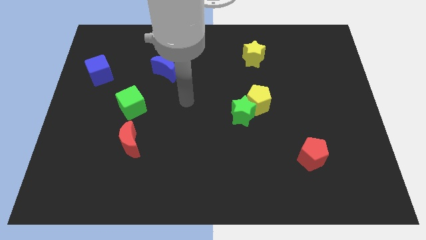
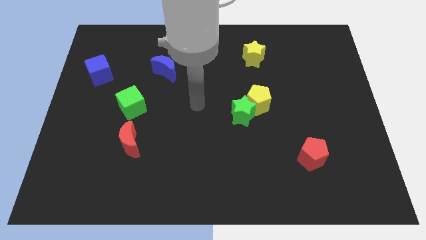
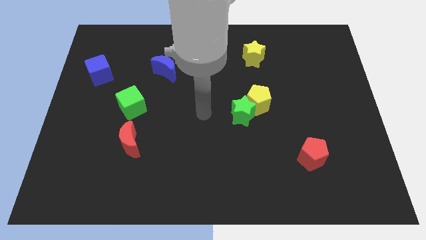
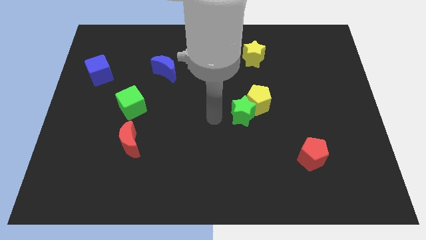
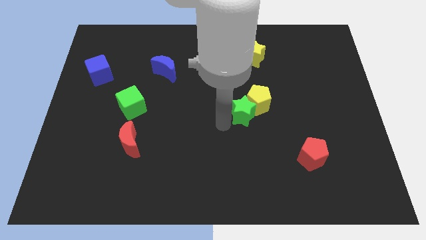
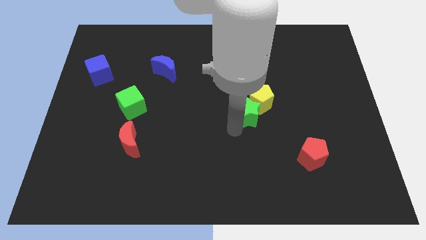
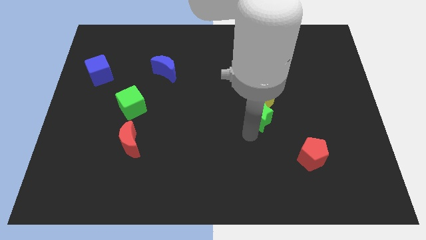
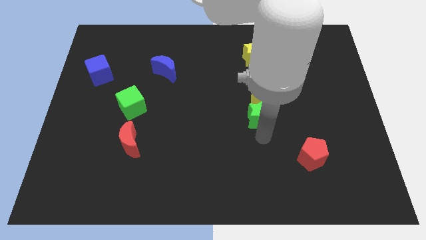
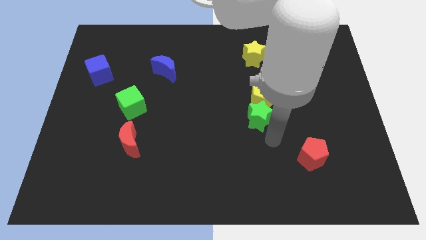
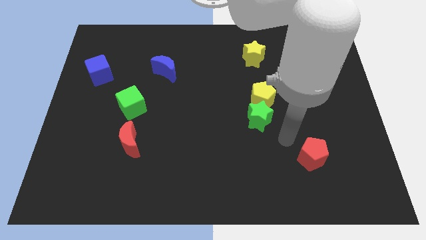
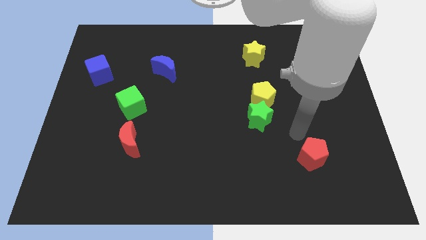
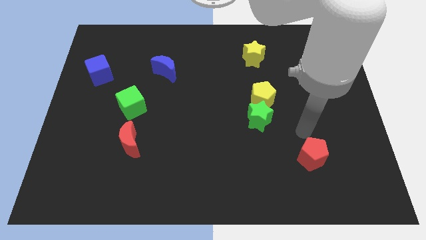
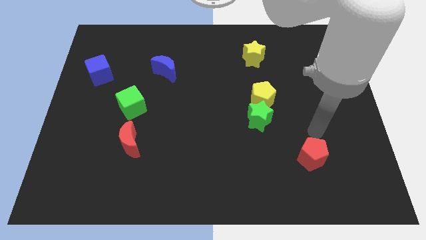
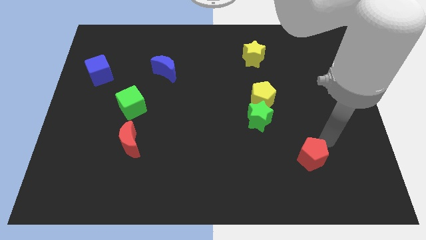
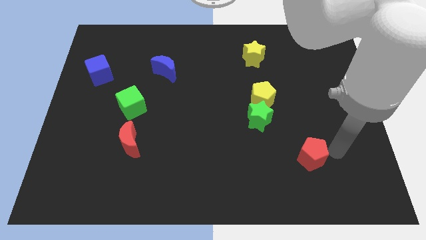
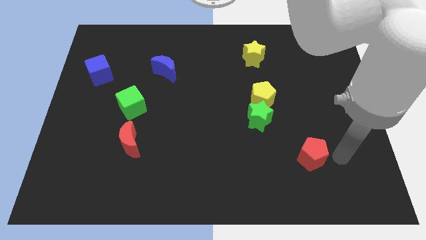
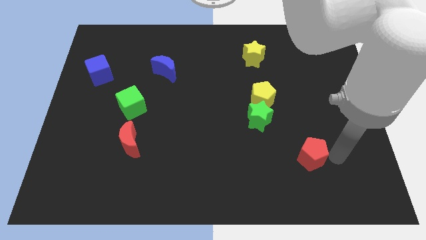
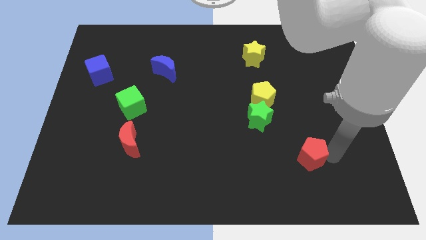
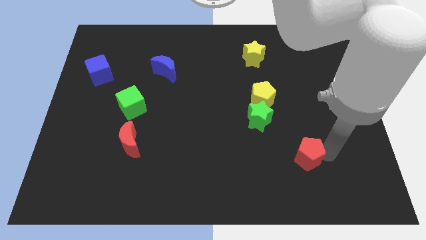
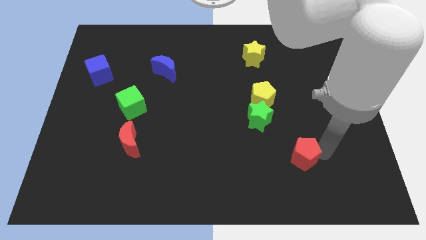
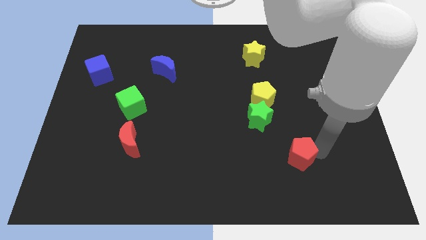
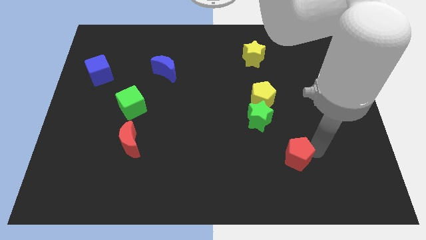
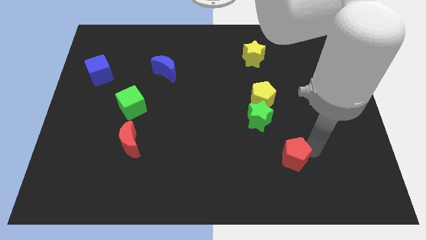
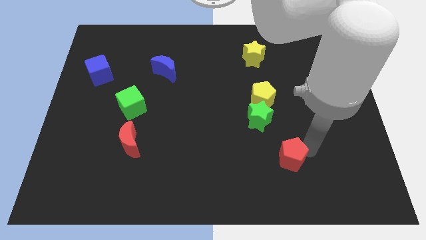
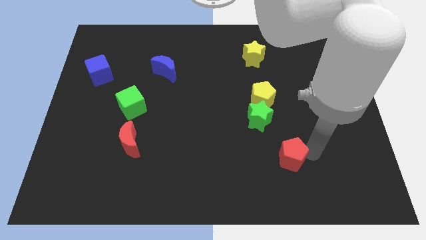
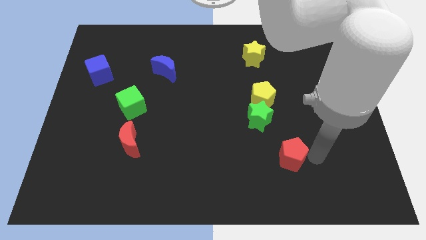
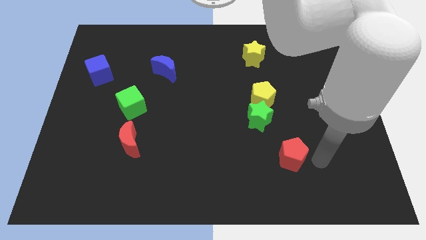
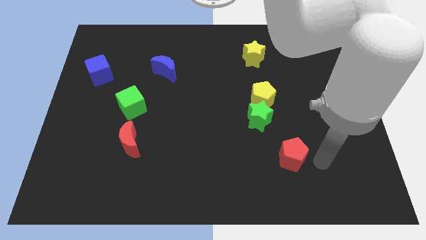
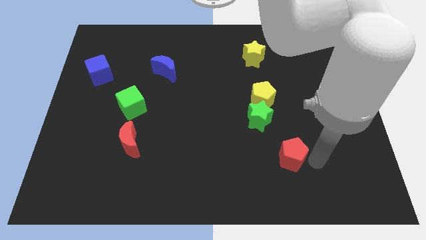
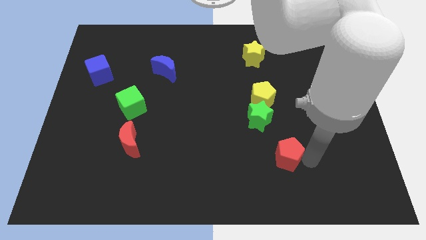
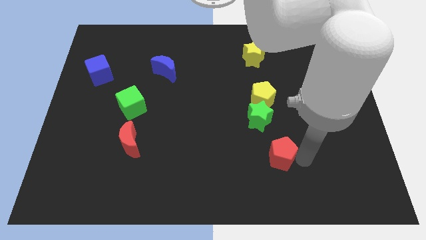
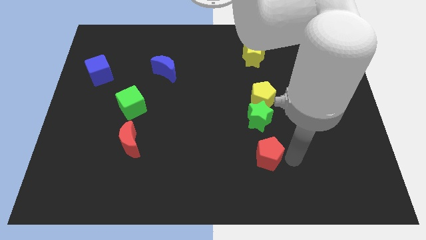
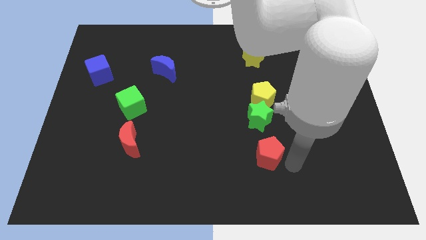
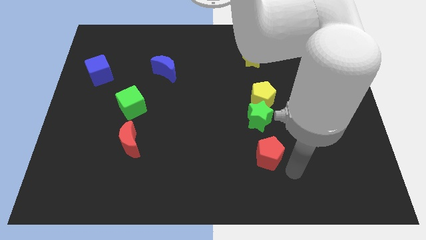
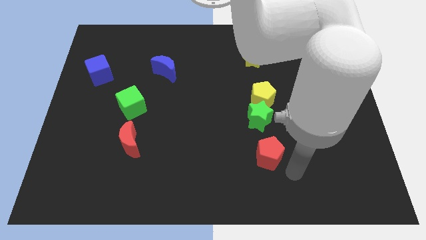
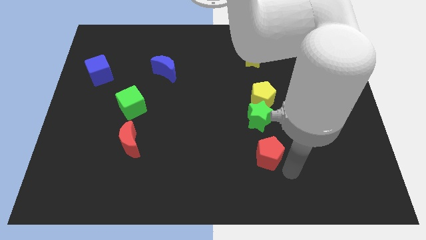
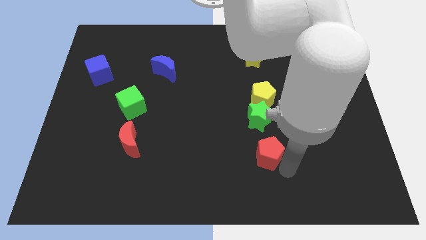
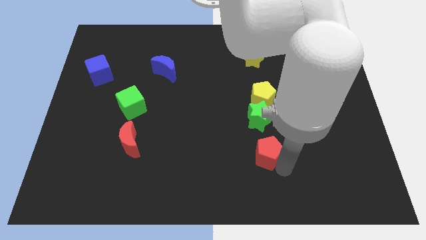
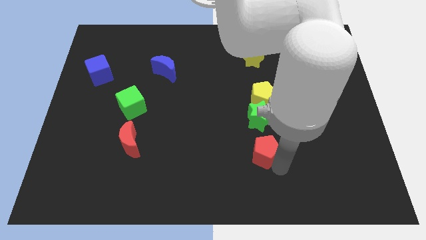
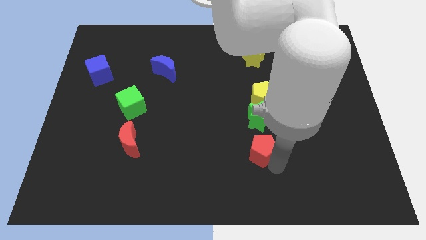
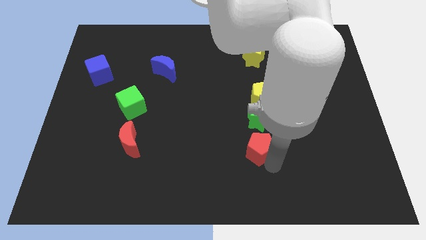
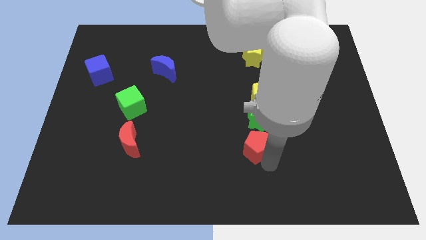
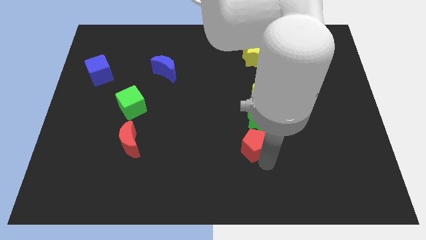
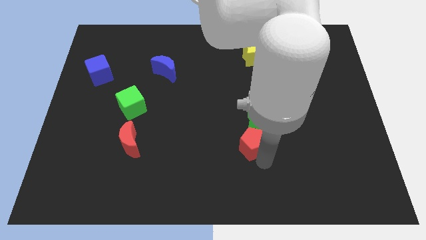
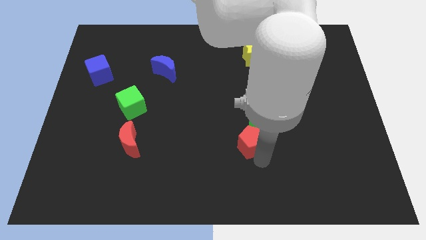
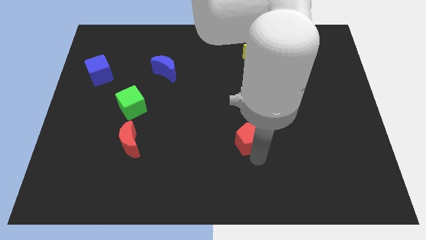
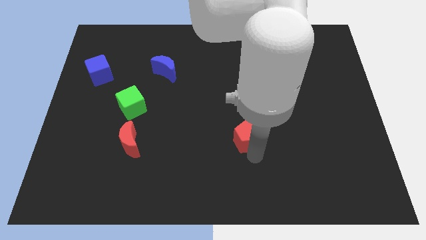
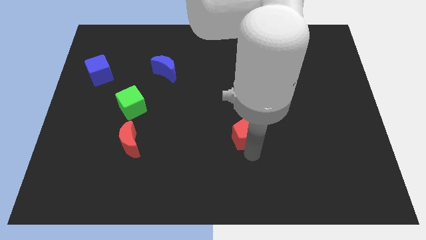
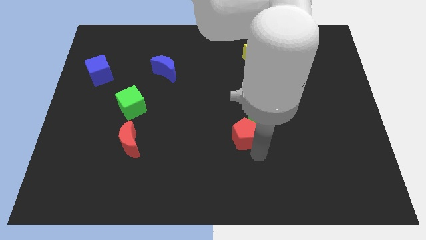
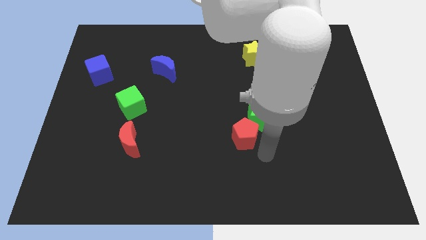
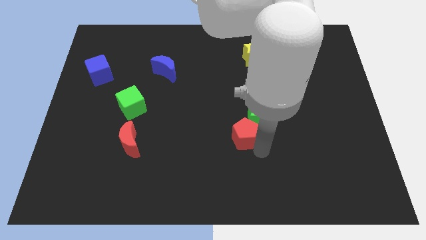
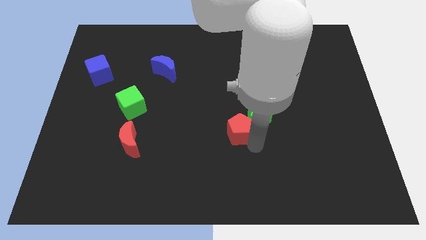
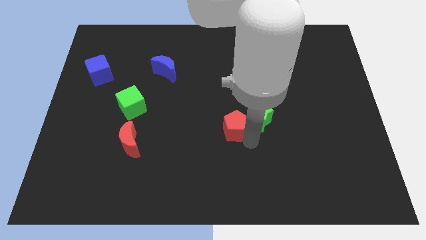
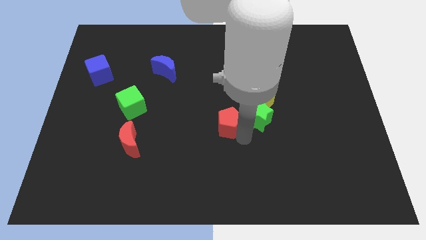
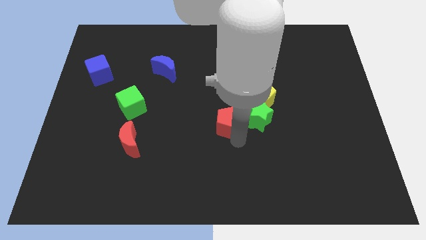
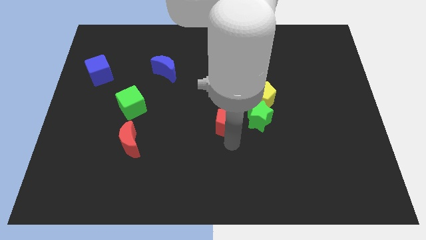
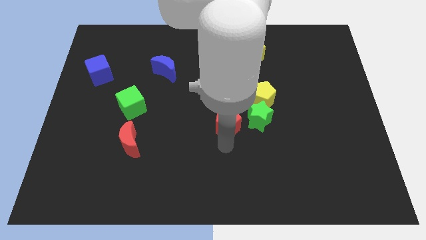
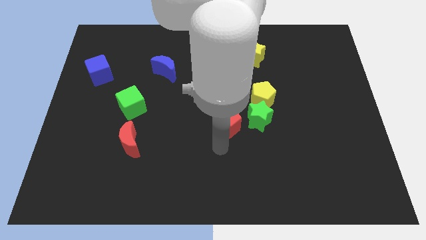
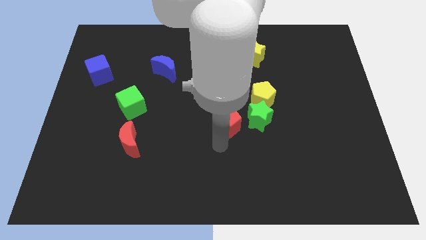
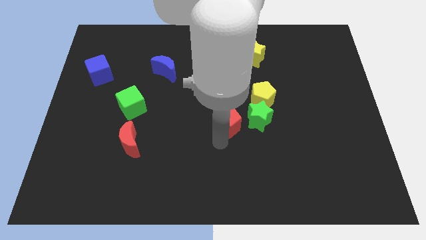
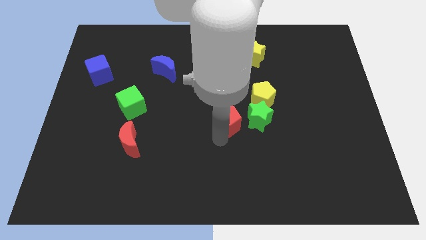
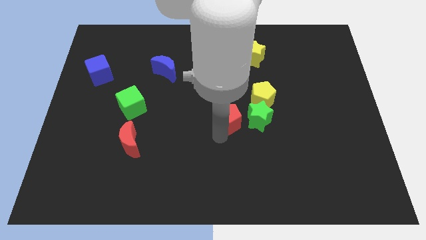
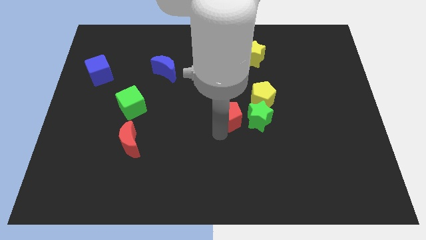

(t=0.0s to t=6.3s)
slide the red pentagon to the top left side of the green star

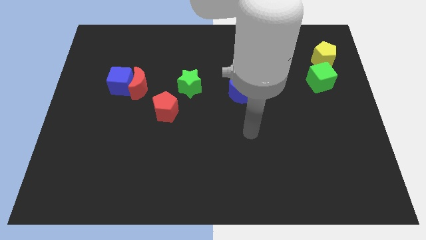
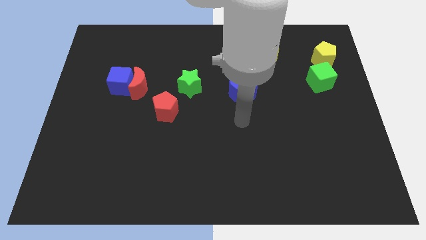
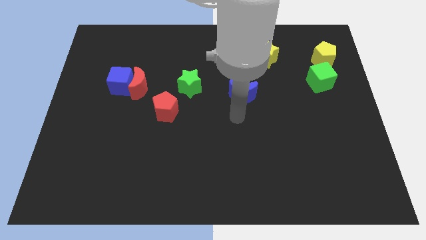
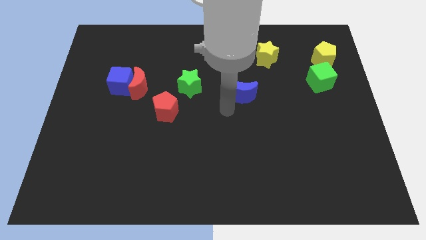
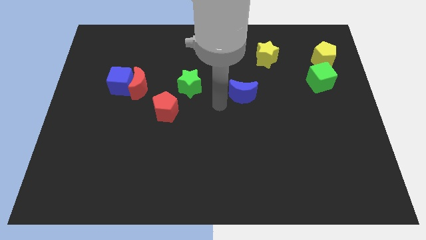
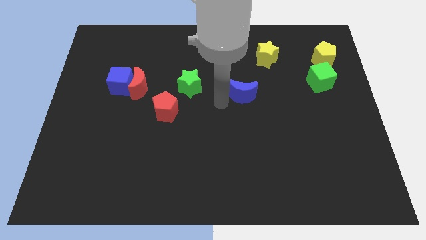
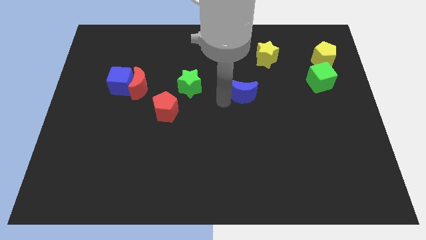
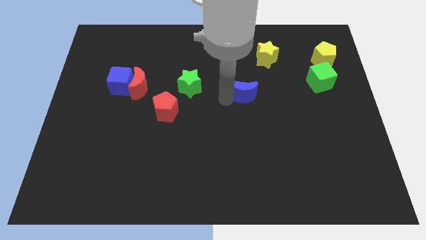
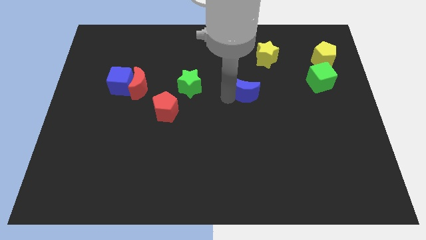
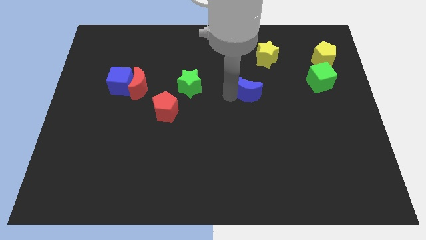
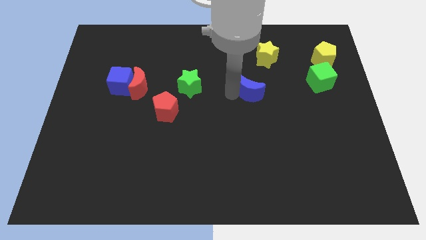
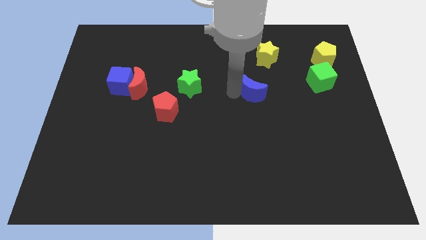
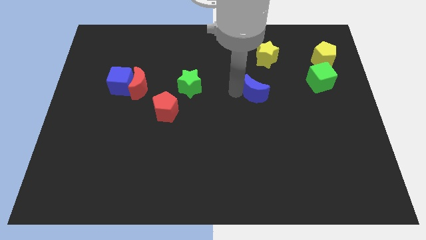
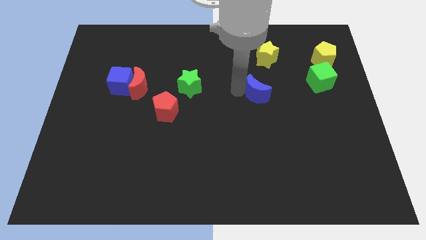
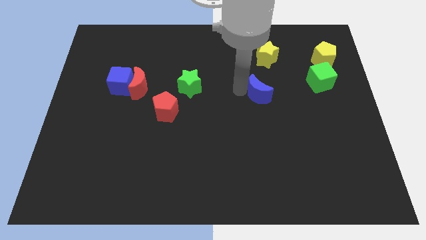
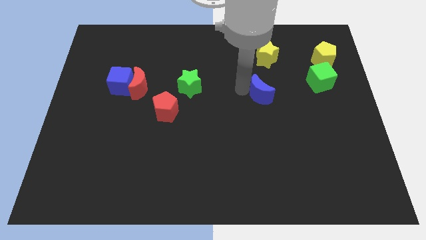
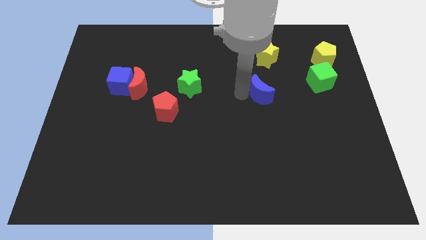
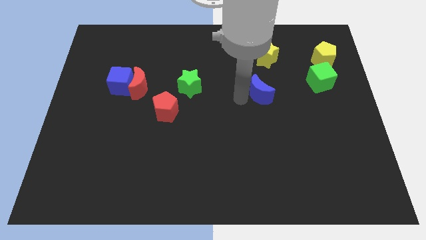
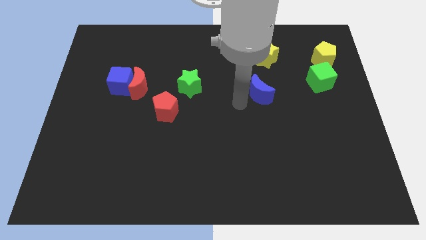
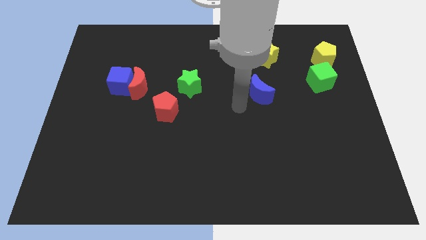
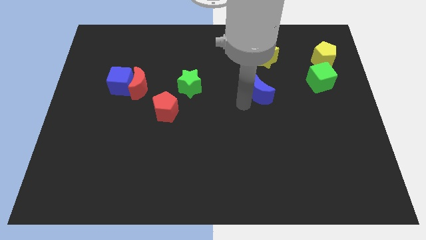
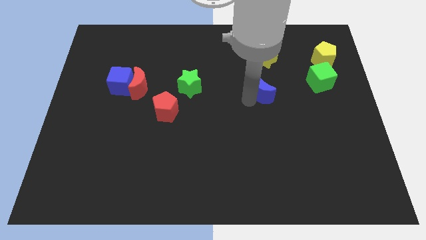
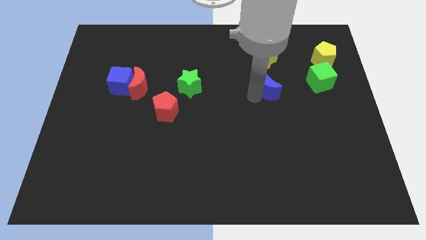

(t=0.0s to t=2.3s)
put the blue moon just left of the green cube
